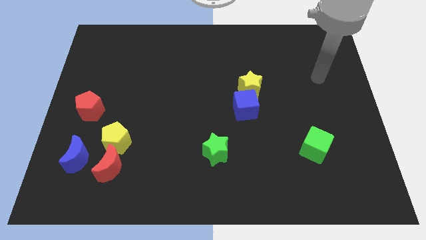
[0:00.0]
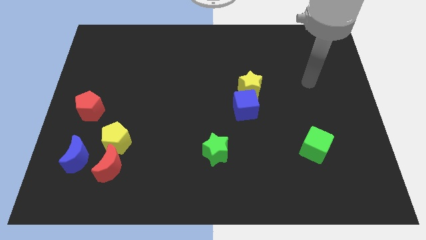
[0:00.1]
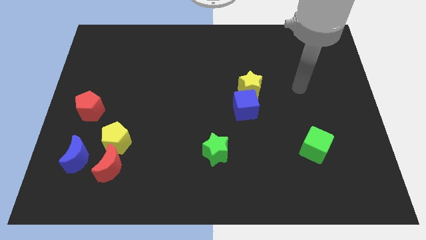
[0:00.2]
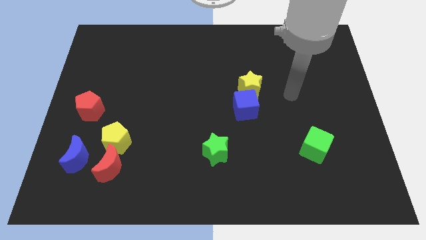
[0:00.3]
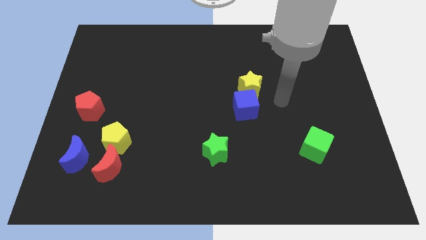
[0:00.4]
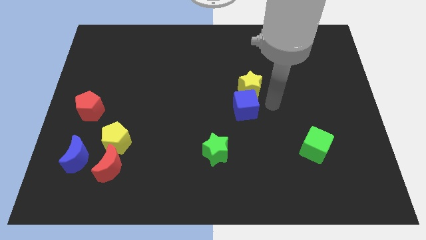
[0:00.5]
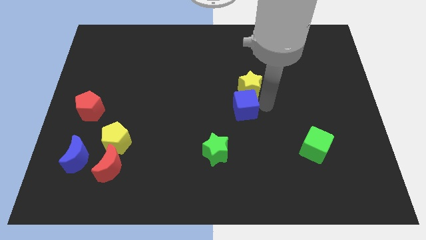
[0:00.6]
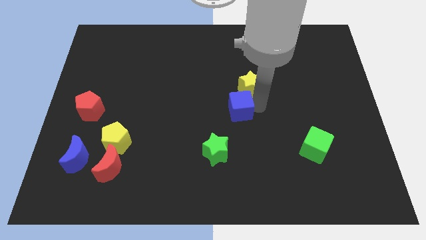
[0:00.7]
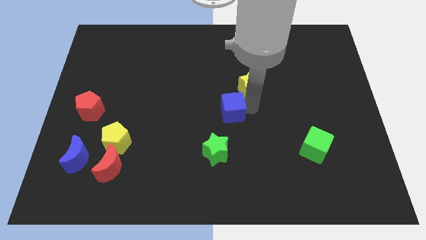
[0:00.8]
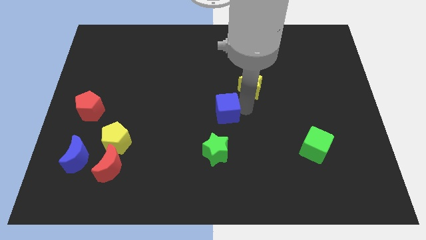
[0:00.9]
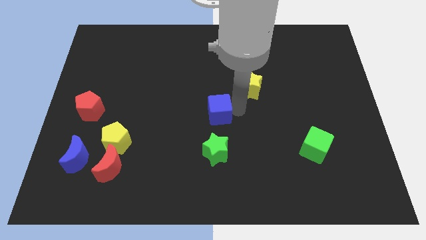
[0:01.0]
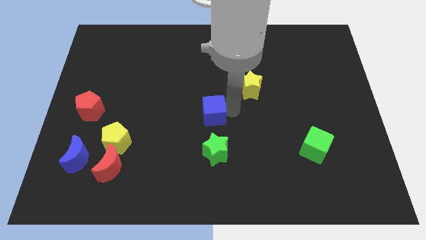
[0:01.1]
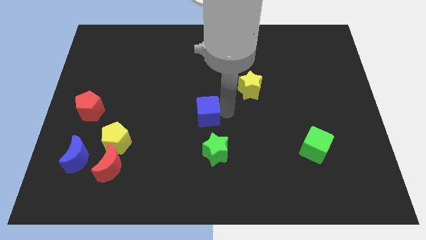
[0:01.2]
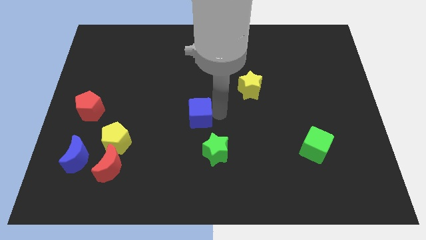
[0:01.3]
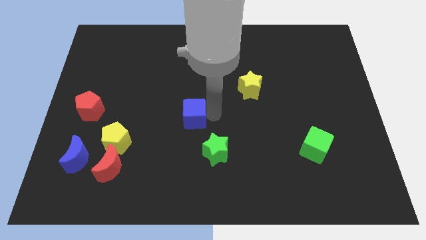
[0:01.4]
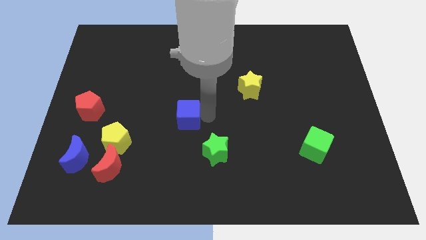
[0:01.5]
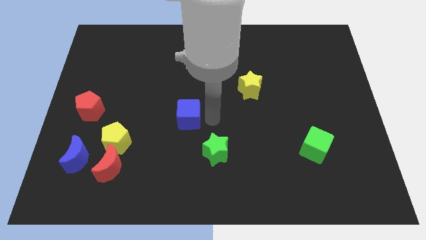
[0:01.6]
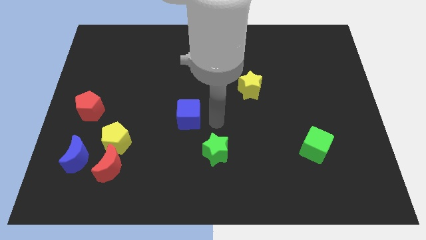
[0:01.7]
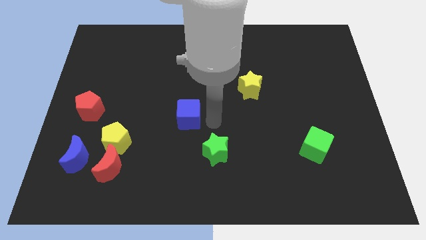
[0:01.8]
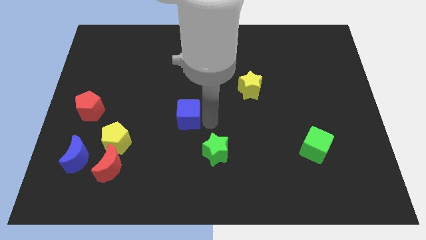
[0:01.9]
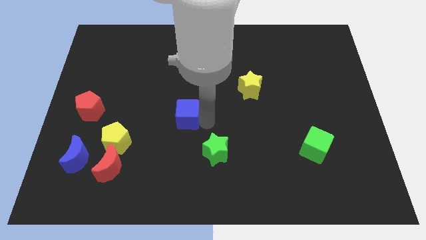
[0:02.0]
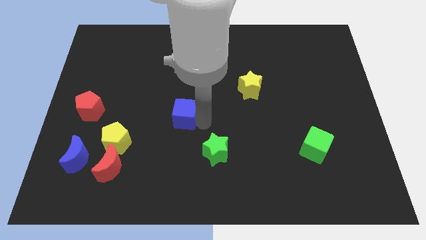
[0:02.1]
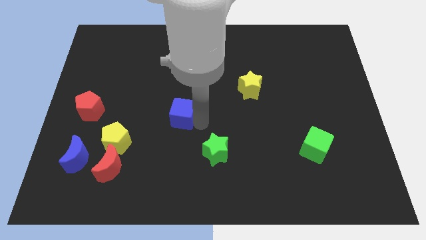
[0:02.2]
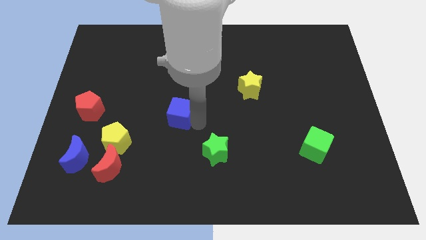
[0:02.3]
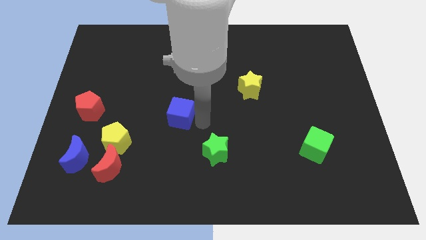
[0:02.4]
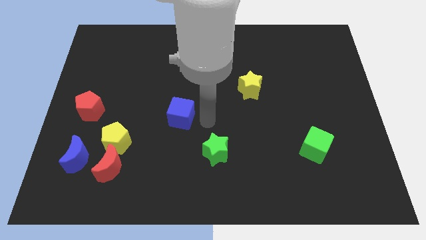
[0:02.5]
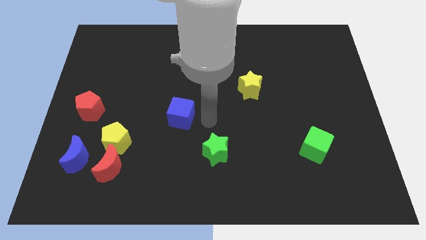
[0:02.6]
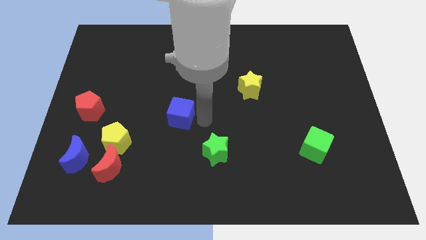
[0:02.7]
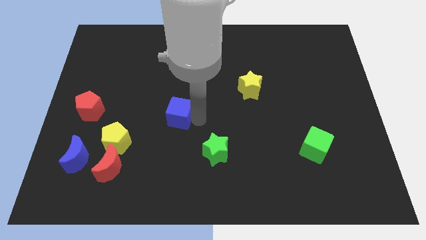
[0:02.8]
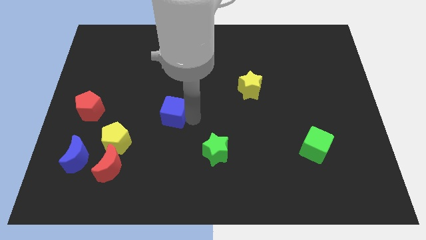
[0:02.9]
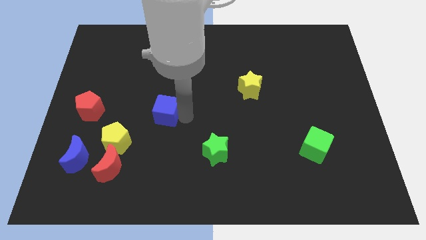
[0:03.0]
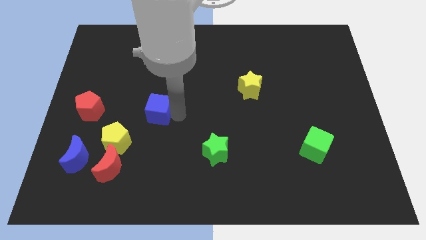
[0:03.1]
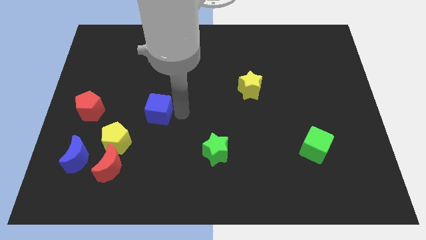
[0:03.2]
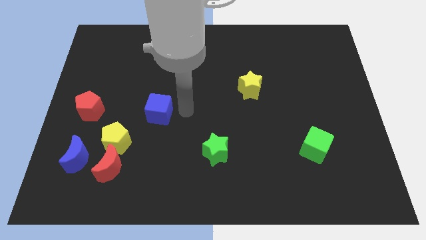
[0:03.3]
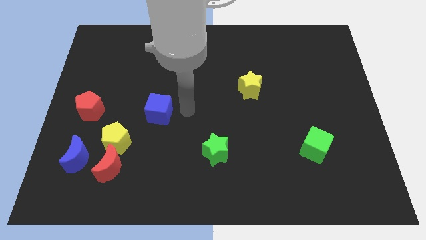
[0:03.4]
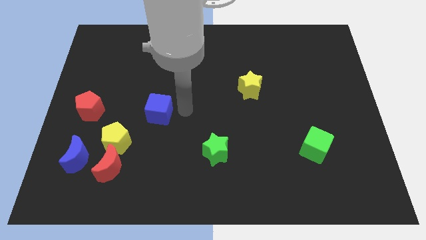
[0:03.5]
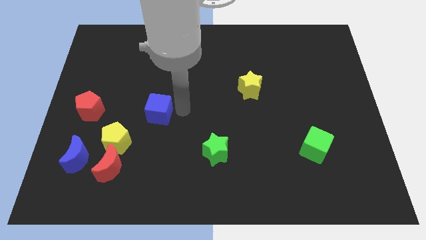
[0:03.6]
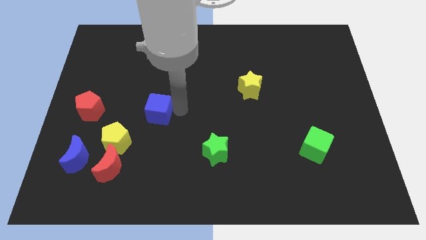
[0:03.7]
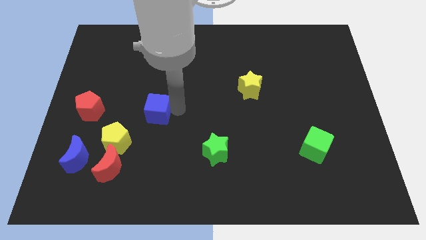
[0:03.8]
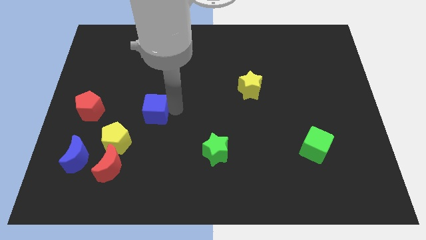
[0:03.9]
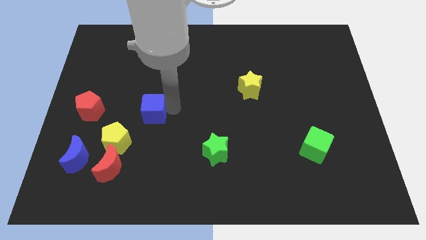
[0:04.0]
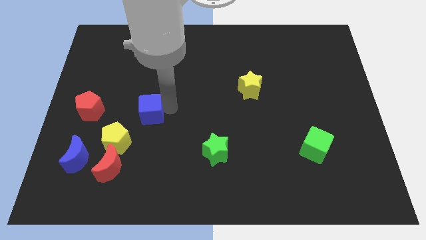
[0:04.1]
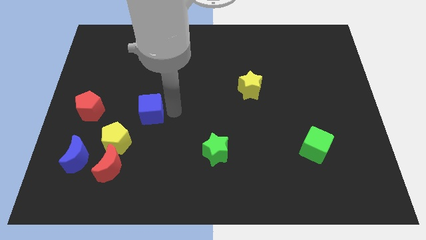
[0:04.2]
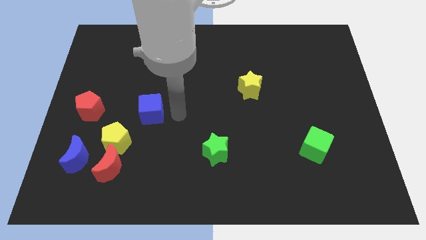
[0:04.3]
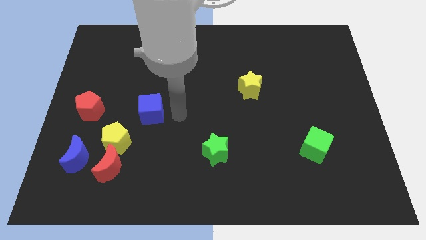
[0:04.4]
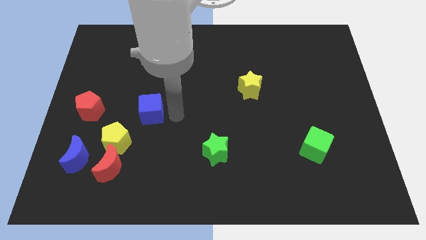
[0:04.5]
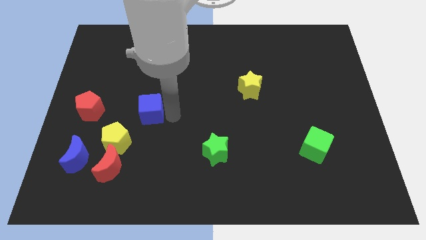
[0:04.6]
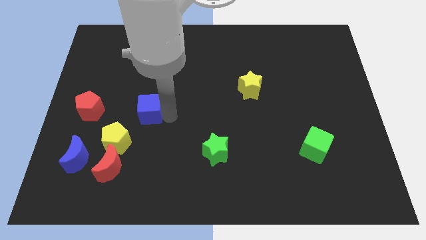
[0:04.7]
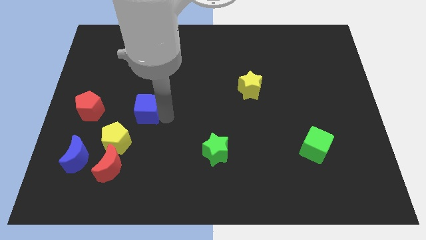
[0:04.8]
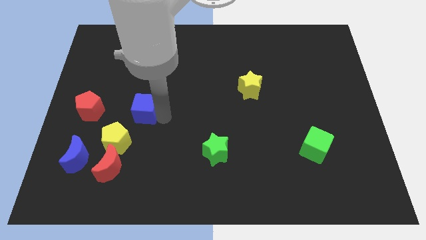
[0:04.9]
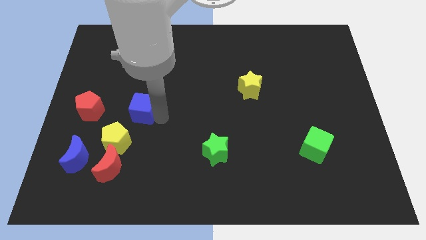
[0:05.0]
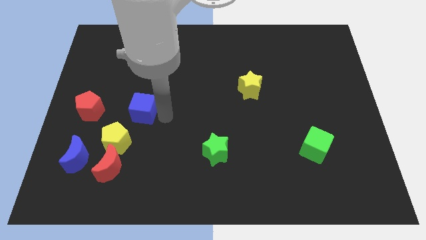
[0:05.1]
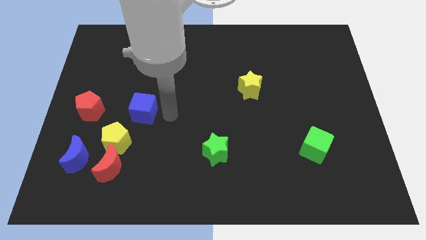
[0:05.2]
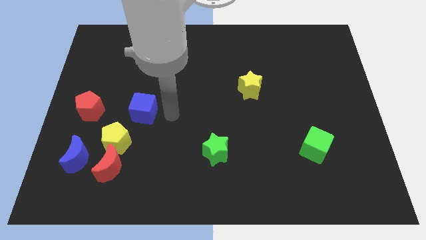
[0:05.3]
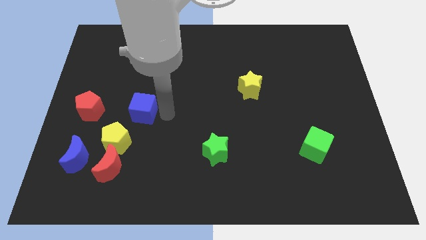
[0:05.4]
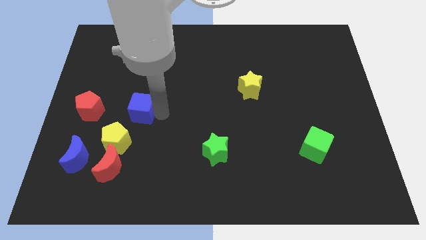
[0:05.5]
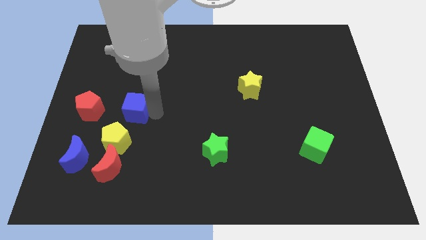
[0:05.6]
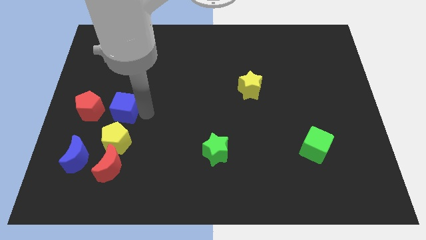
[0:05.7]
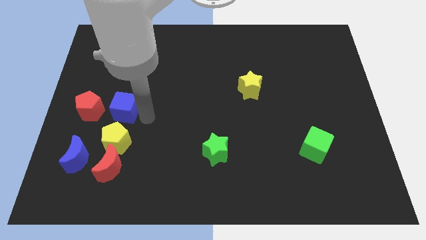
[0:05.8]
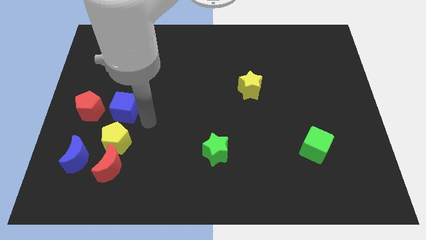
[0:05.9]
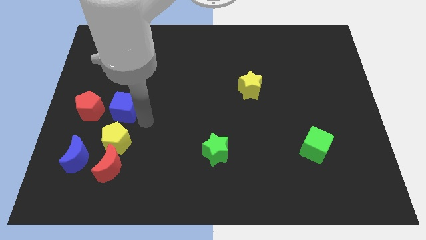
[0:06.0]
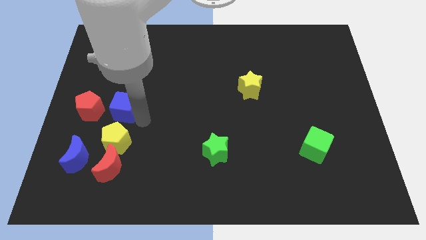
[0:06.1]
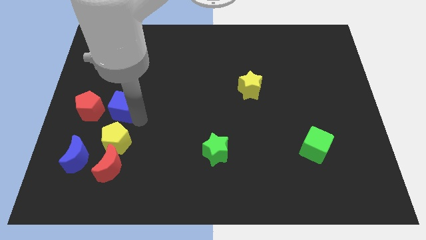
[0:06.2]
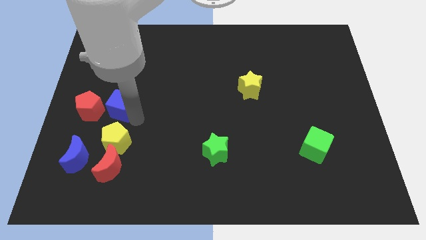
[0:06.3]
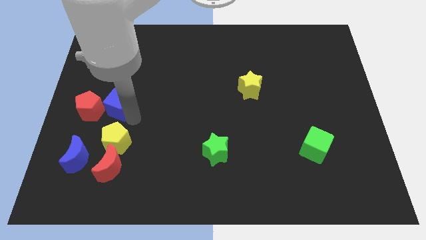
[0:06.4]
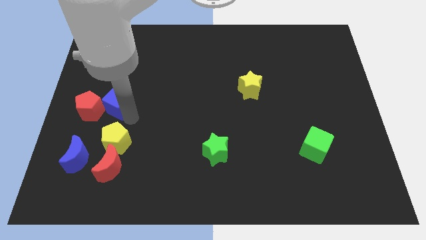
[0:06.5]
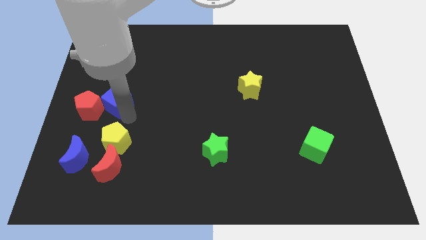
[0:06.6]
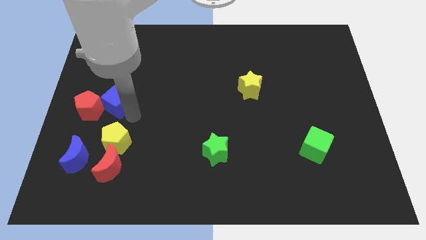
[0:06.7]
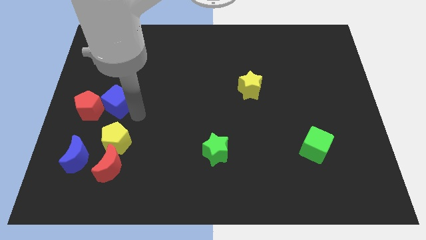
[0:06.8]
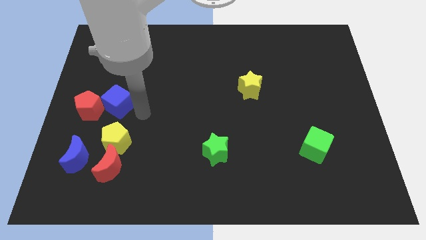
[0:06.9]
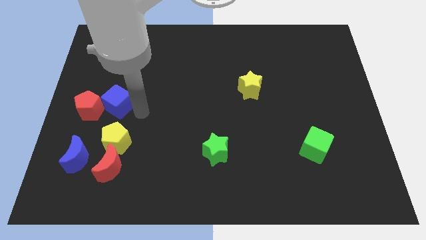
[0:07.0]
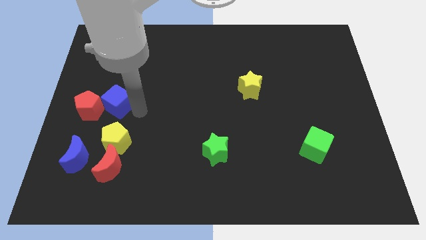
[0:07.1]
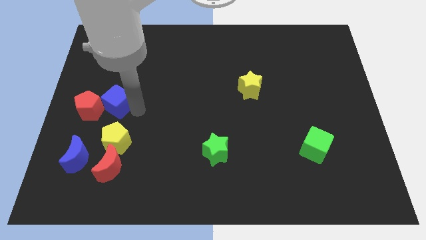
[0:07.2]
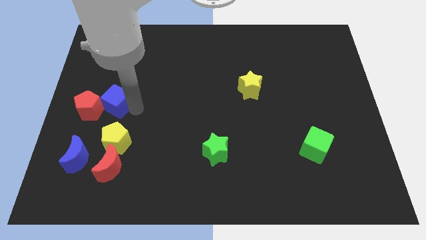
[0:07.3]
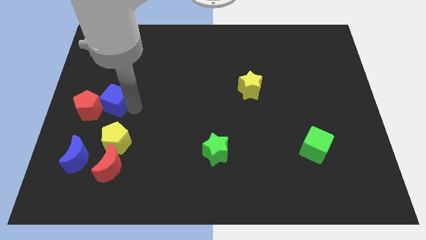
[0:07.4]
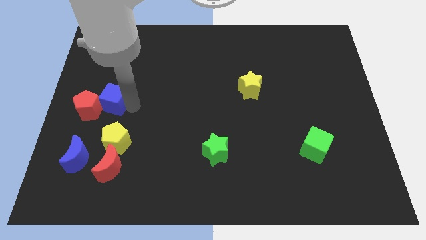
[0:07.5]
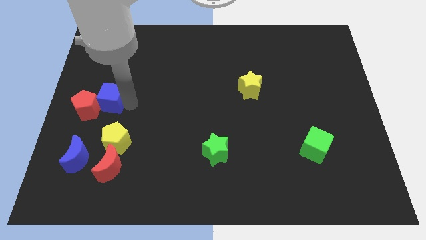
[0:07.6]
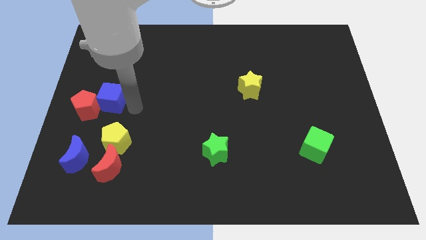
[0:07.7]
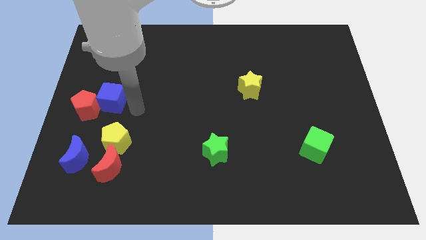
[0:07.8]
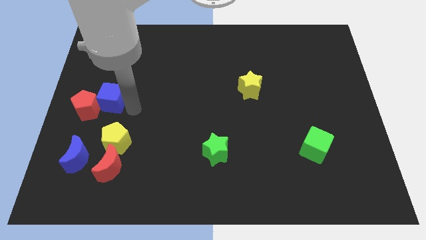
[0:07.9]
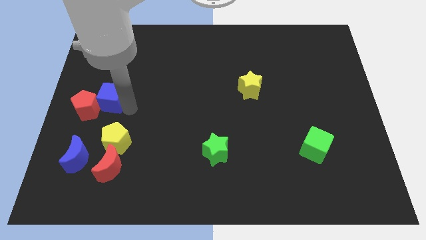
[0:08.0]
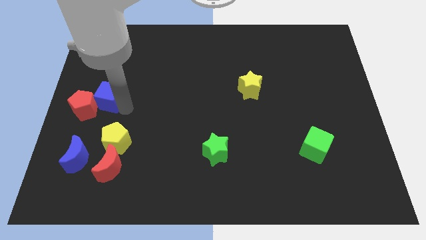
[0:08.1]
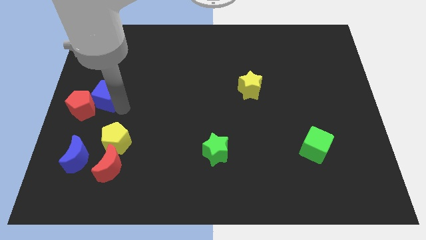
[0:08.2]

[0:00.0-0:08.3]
put the blue cube to the center left
